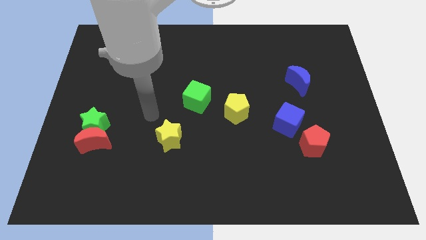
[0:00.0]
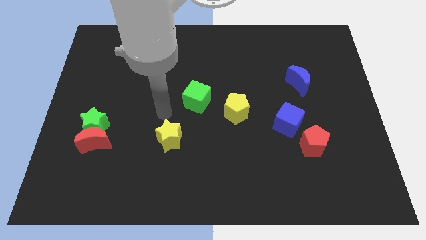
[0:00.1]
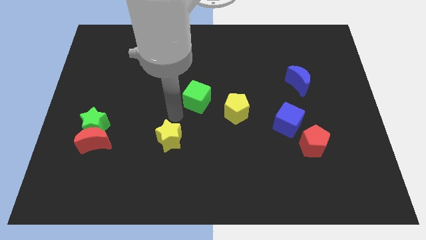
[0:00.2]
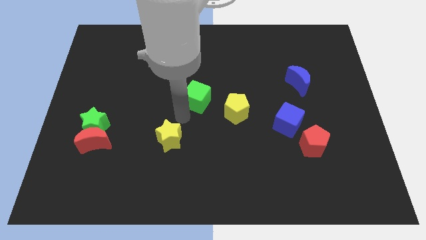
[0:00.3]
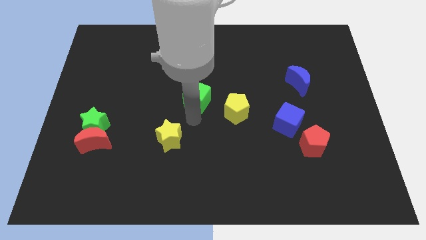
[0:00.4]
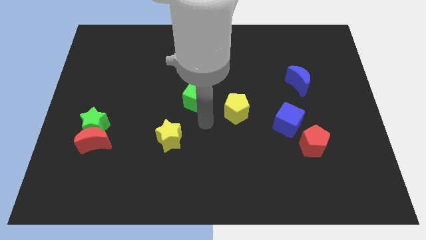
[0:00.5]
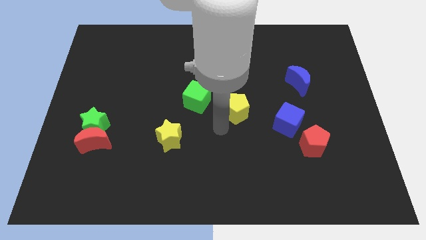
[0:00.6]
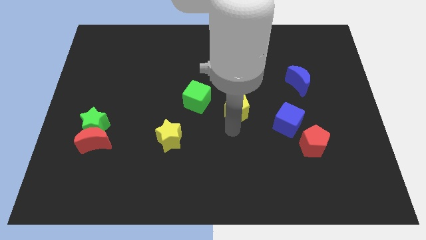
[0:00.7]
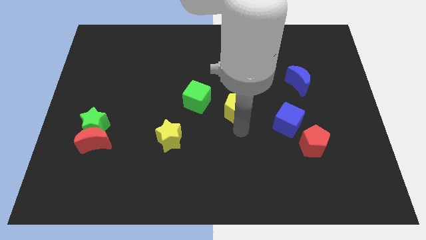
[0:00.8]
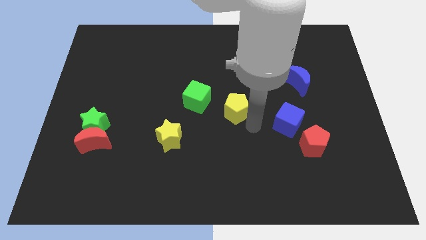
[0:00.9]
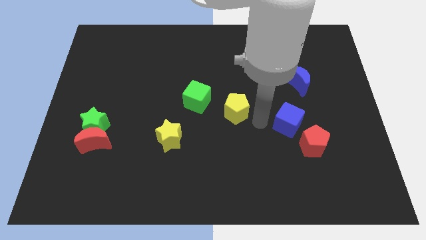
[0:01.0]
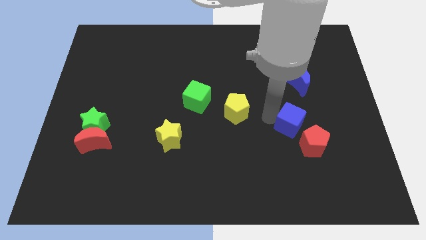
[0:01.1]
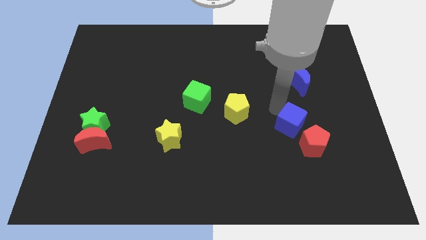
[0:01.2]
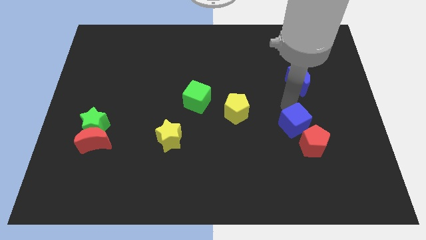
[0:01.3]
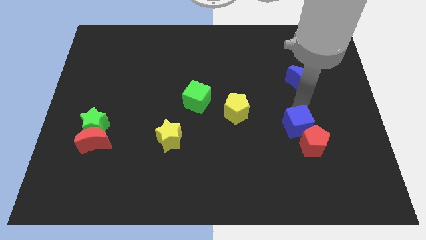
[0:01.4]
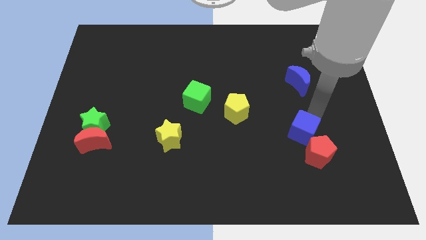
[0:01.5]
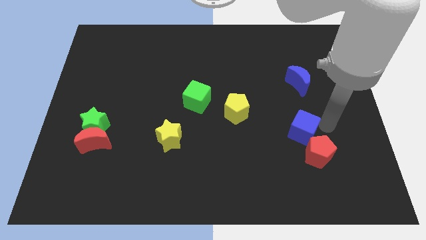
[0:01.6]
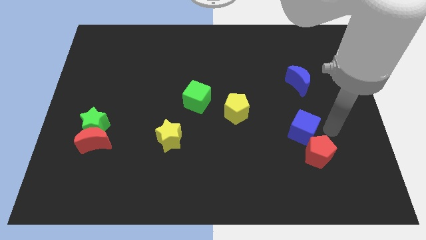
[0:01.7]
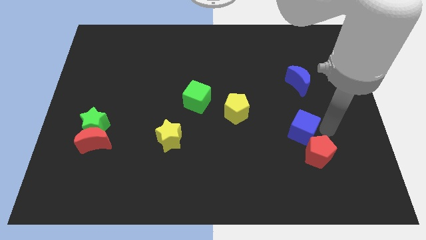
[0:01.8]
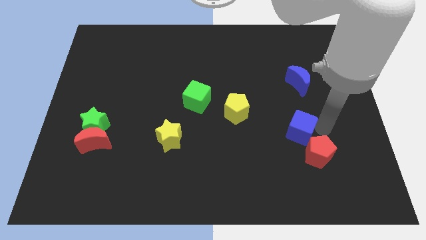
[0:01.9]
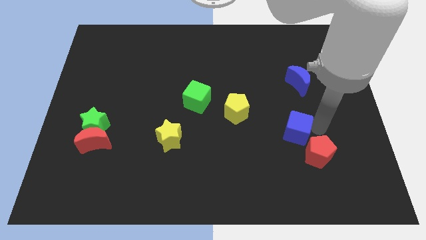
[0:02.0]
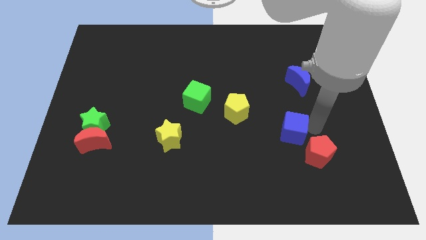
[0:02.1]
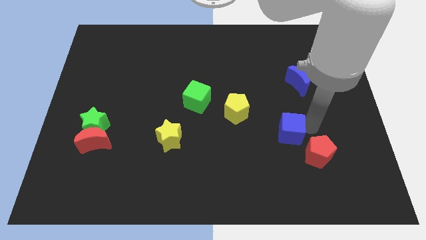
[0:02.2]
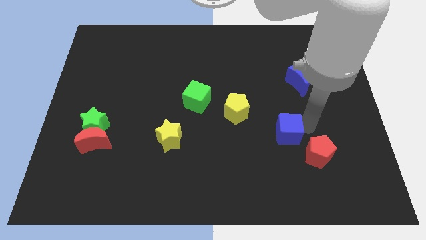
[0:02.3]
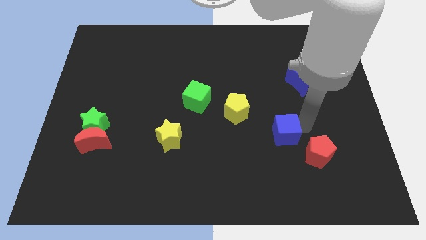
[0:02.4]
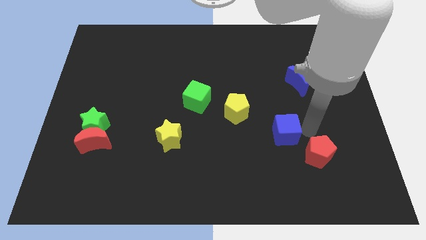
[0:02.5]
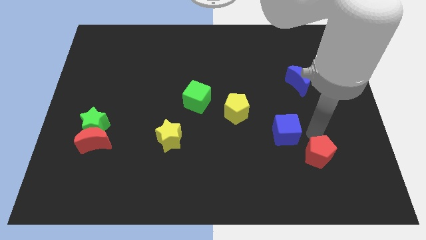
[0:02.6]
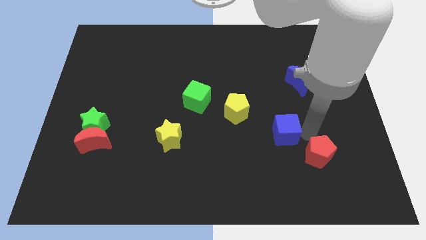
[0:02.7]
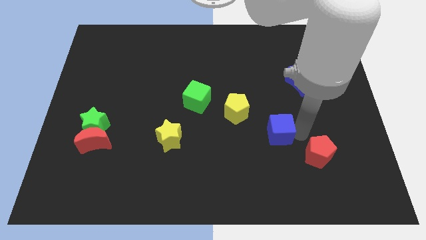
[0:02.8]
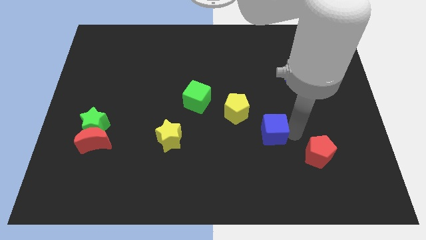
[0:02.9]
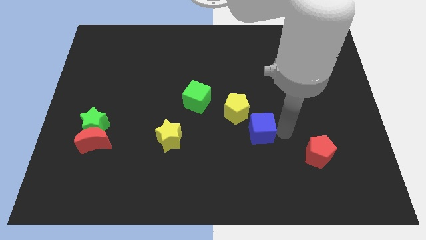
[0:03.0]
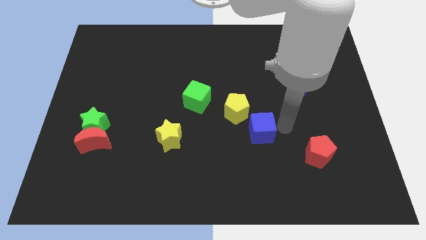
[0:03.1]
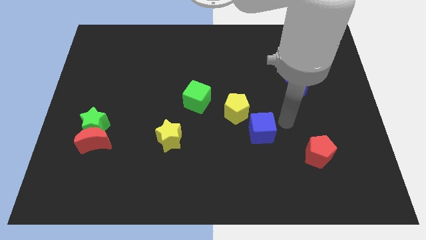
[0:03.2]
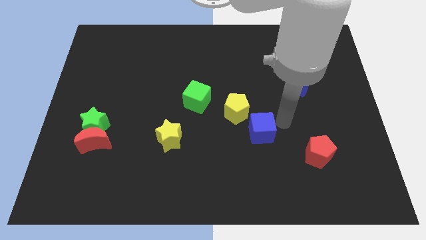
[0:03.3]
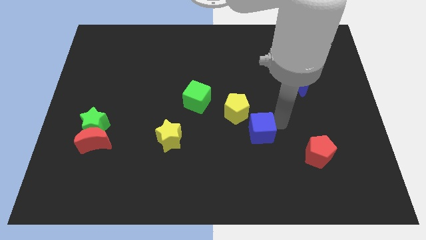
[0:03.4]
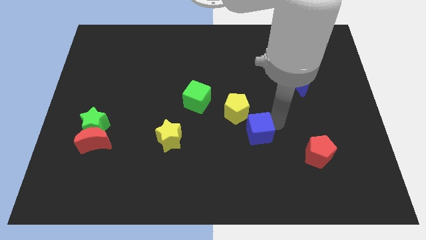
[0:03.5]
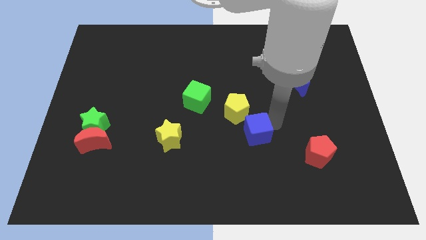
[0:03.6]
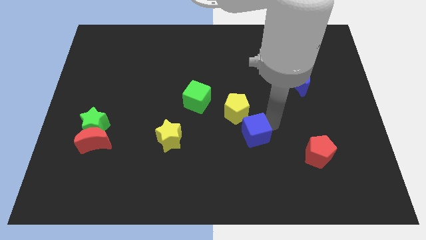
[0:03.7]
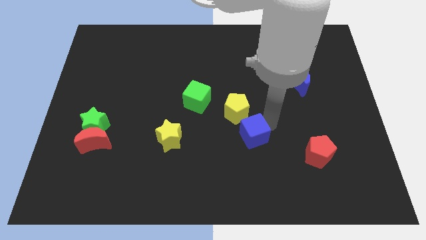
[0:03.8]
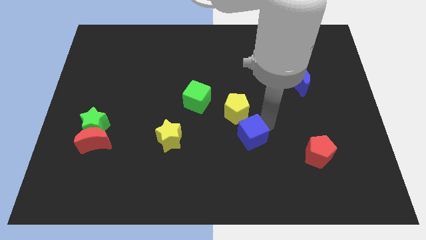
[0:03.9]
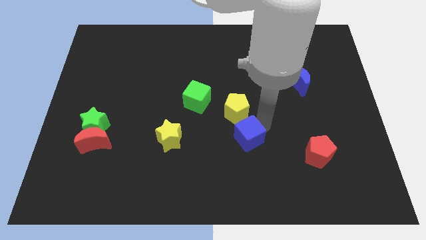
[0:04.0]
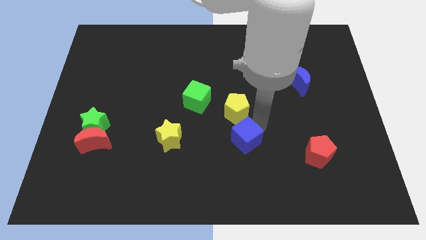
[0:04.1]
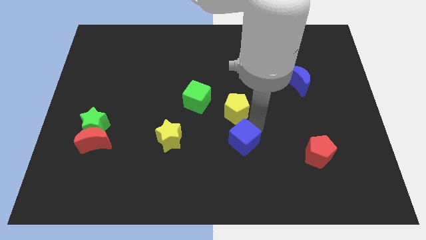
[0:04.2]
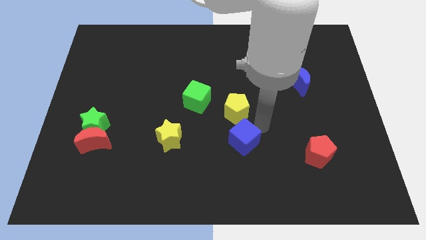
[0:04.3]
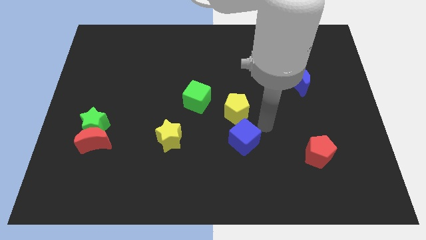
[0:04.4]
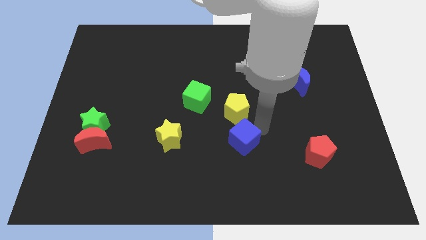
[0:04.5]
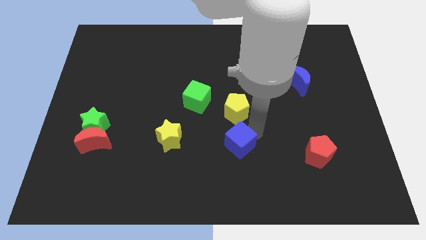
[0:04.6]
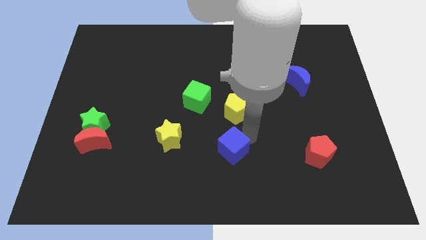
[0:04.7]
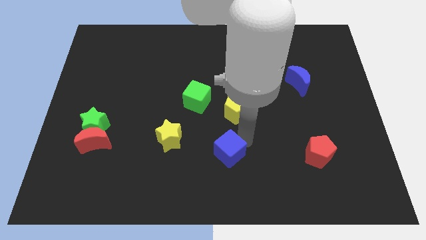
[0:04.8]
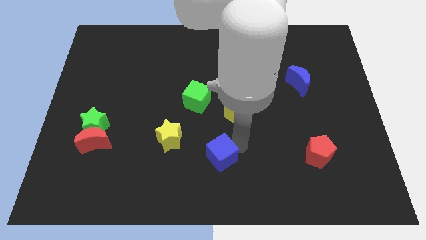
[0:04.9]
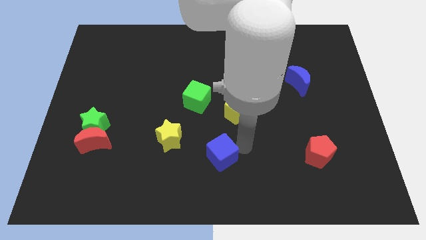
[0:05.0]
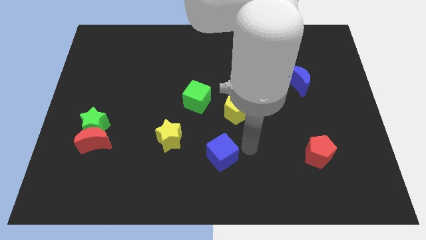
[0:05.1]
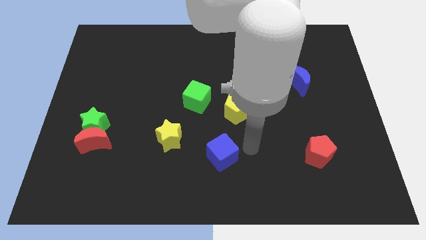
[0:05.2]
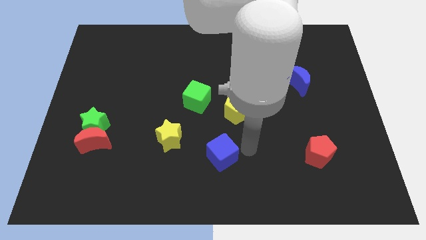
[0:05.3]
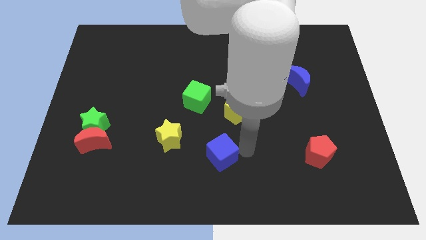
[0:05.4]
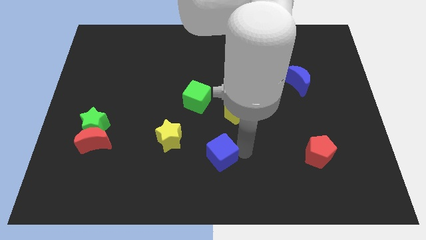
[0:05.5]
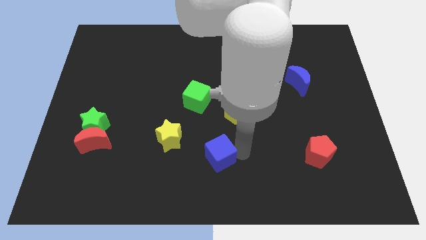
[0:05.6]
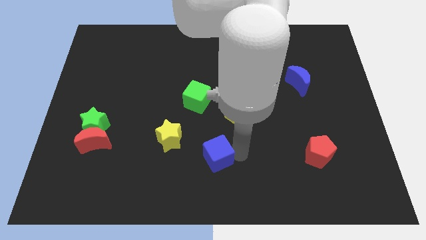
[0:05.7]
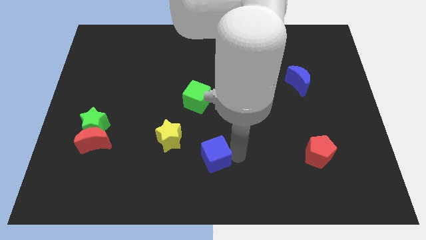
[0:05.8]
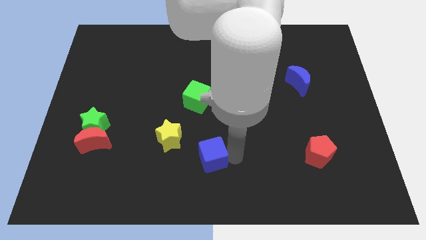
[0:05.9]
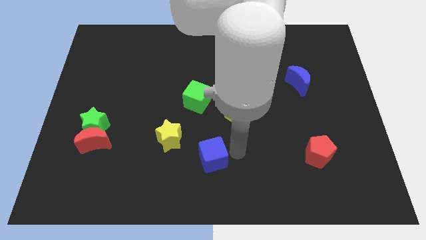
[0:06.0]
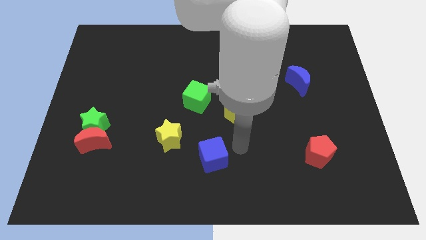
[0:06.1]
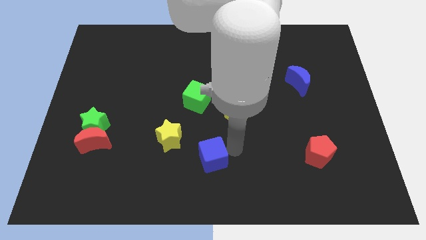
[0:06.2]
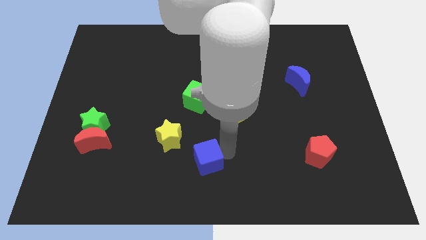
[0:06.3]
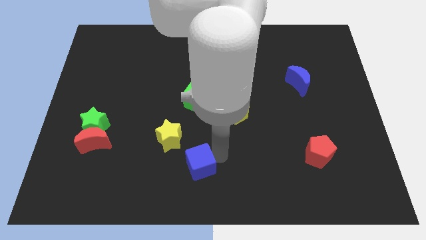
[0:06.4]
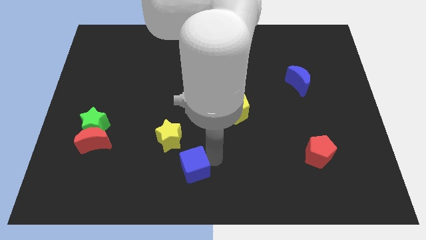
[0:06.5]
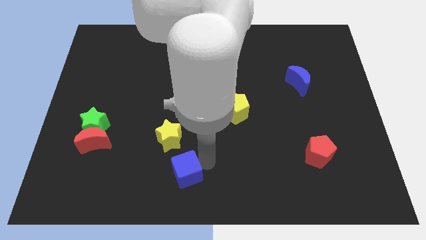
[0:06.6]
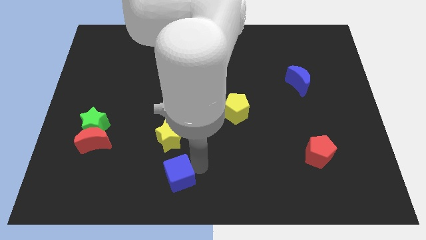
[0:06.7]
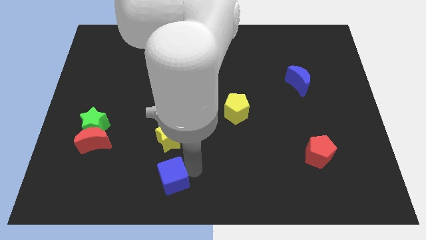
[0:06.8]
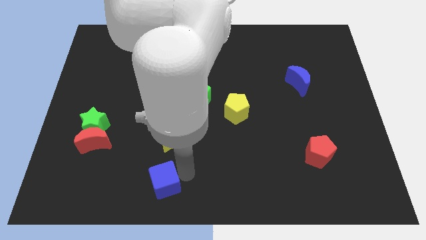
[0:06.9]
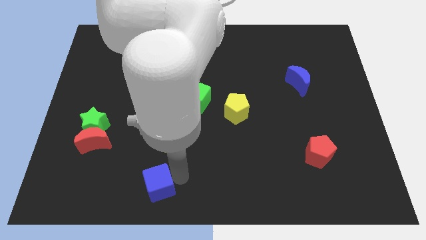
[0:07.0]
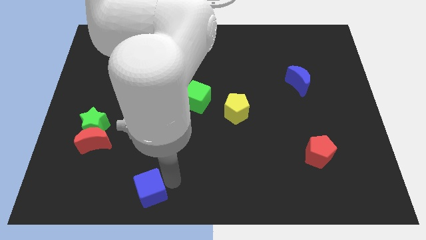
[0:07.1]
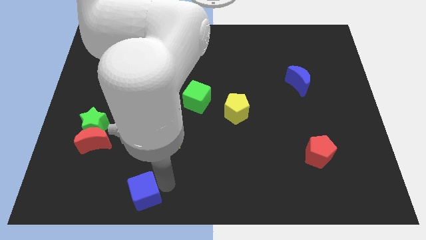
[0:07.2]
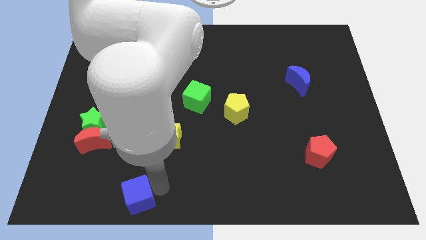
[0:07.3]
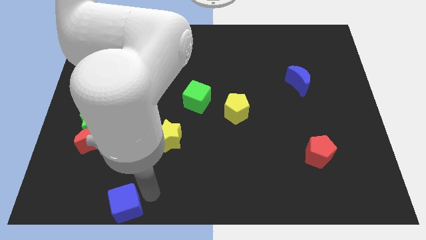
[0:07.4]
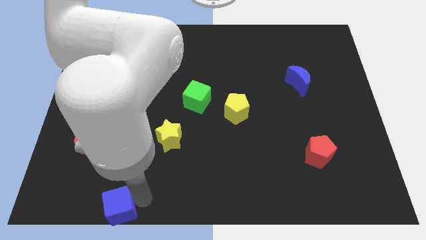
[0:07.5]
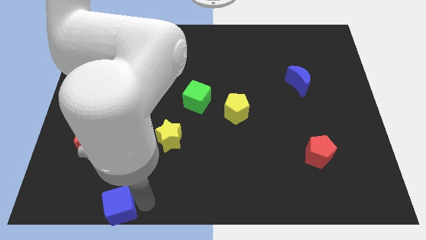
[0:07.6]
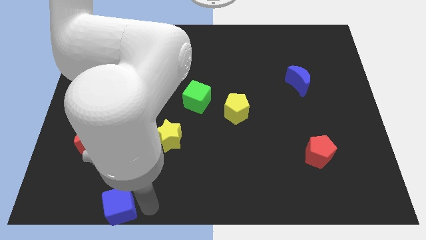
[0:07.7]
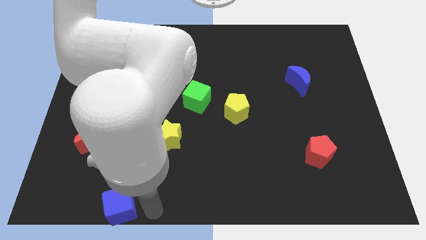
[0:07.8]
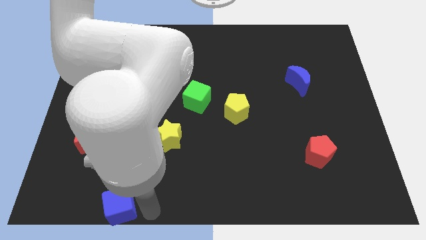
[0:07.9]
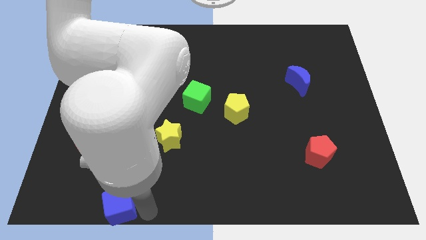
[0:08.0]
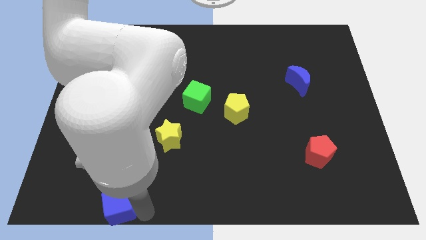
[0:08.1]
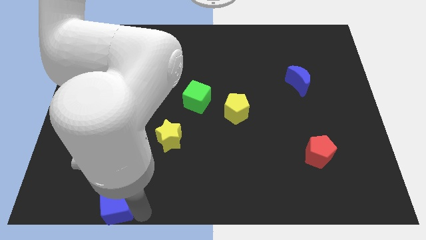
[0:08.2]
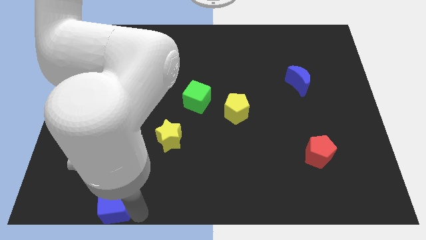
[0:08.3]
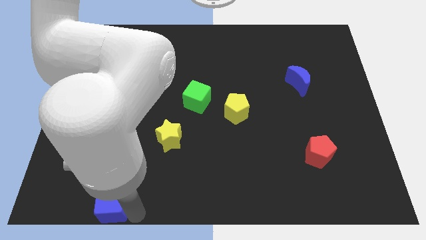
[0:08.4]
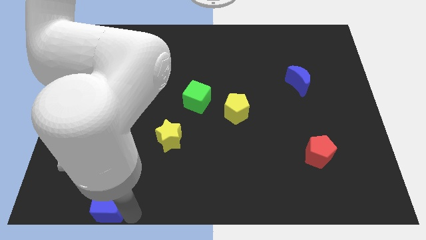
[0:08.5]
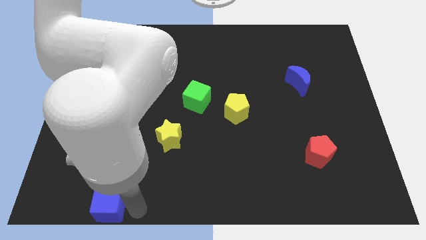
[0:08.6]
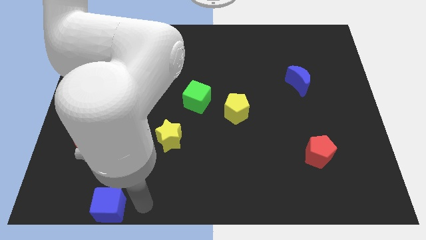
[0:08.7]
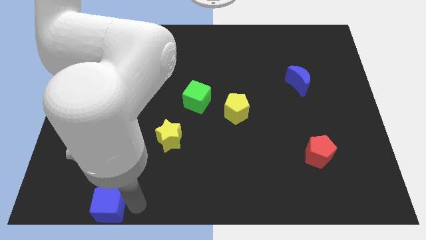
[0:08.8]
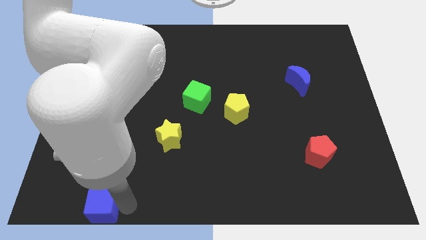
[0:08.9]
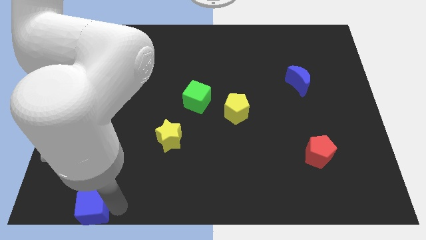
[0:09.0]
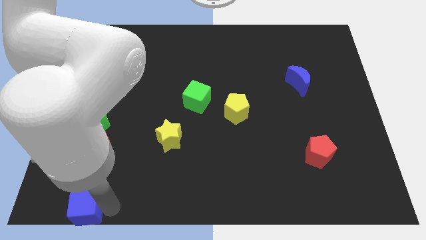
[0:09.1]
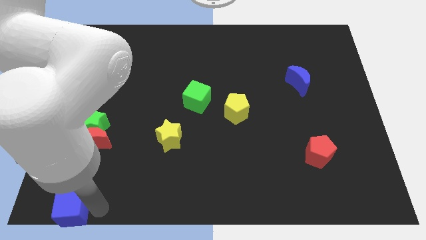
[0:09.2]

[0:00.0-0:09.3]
slide the blue cube to the lower left corner
